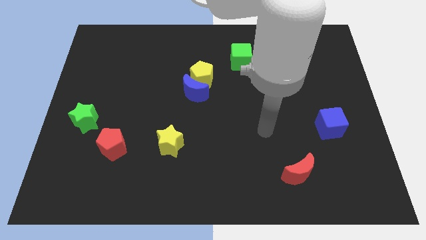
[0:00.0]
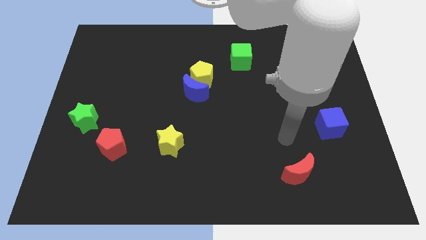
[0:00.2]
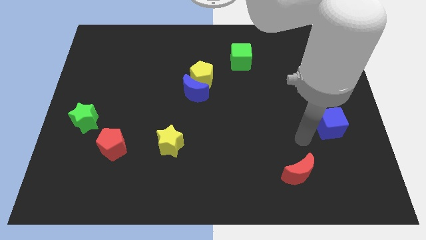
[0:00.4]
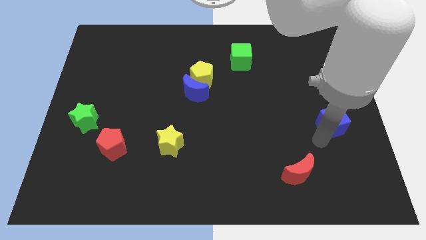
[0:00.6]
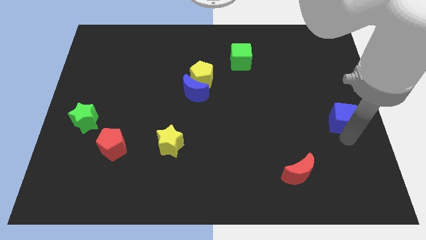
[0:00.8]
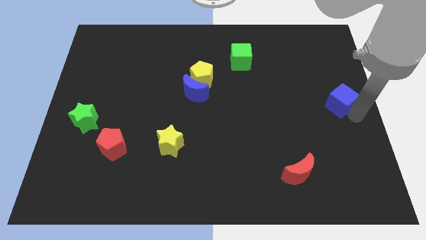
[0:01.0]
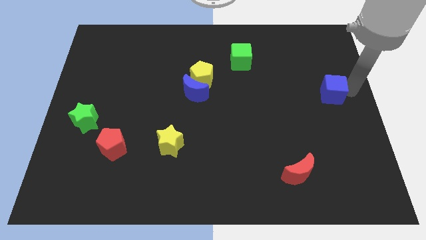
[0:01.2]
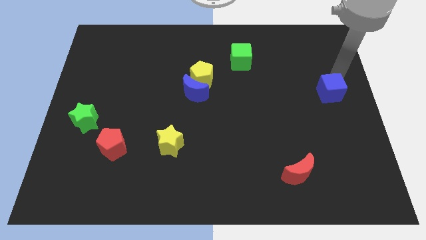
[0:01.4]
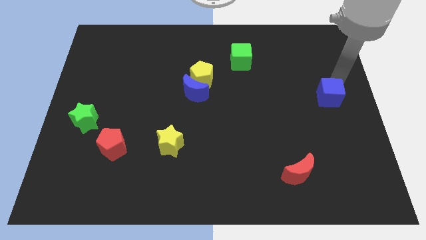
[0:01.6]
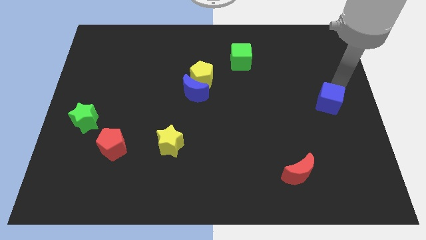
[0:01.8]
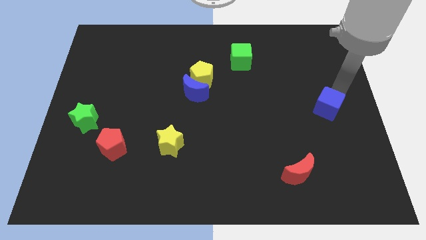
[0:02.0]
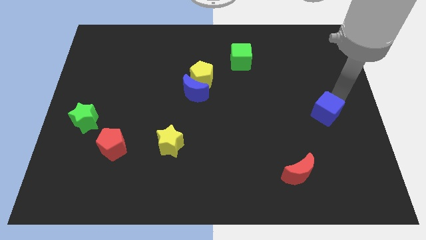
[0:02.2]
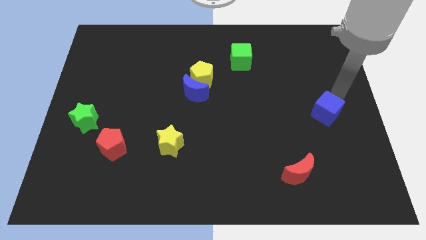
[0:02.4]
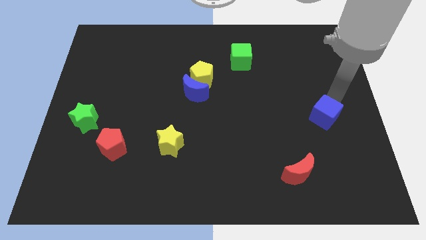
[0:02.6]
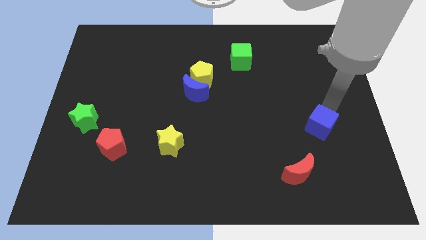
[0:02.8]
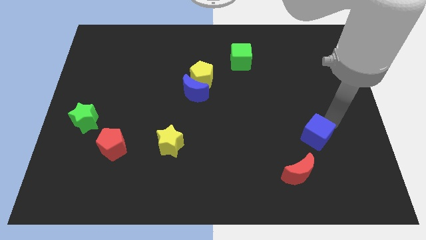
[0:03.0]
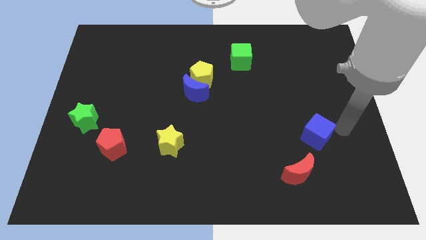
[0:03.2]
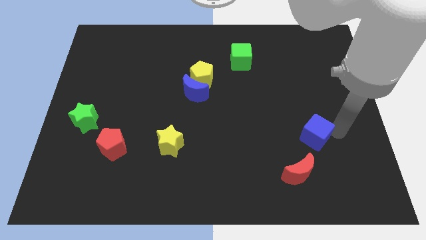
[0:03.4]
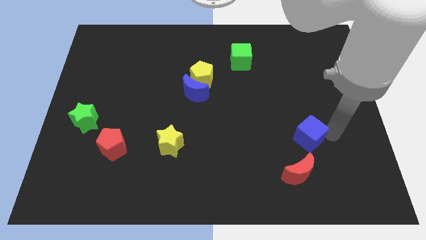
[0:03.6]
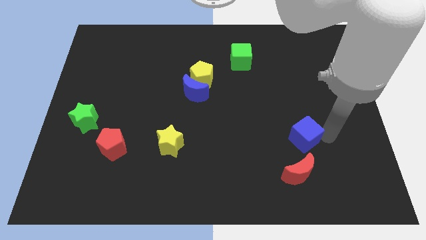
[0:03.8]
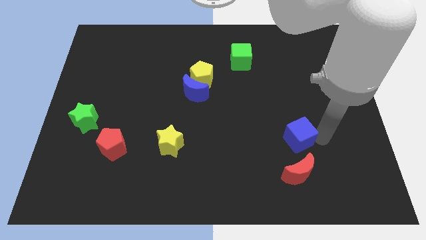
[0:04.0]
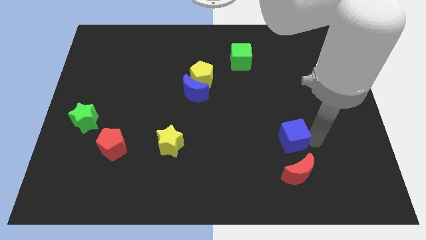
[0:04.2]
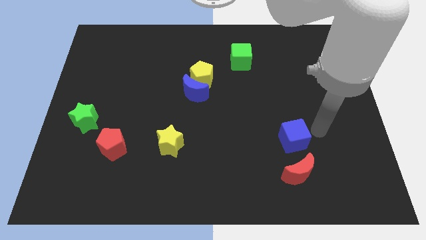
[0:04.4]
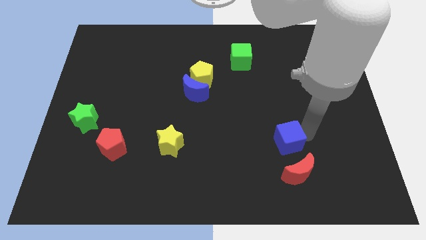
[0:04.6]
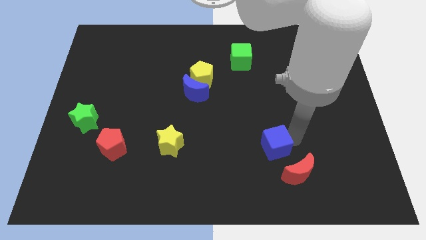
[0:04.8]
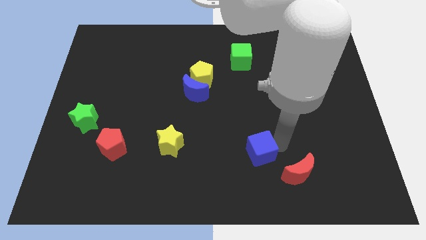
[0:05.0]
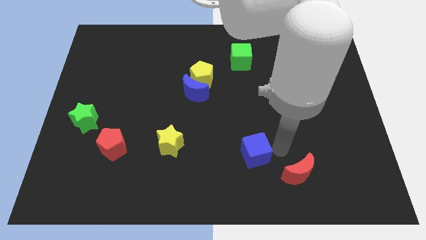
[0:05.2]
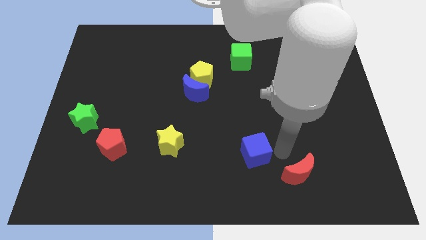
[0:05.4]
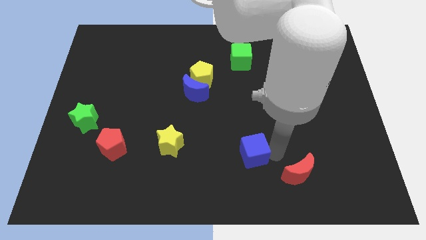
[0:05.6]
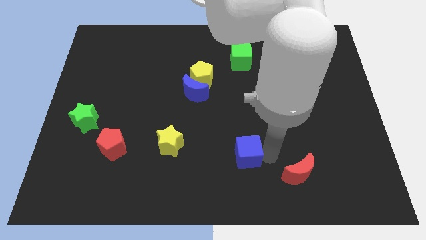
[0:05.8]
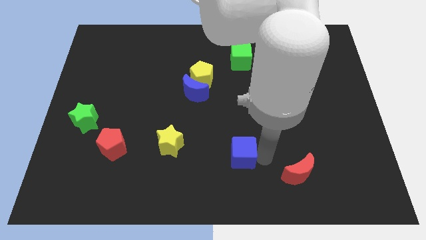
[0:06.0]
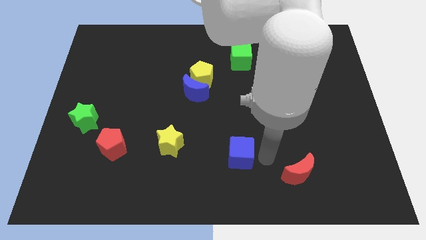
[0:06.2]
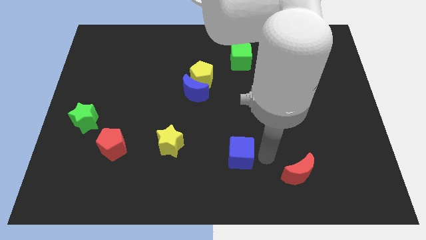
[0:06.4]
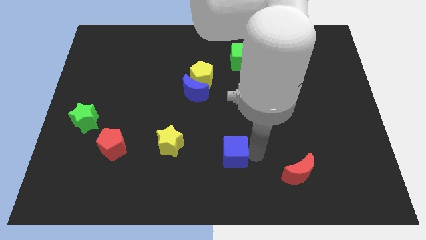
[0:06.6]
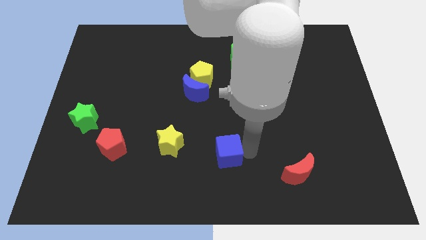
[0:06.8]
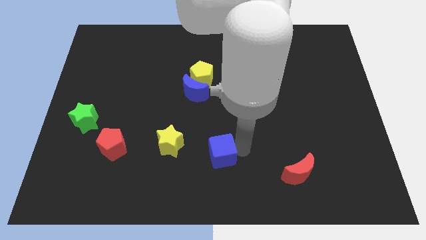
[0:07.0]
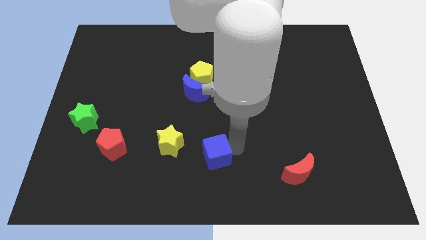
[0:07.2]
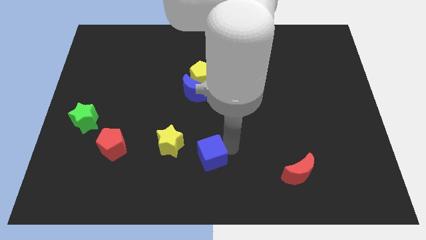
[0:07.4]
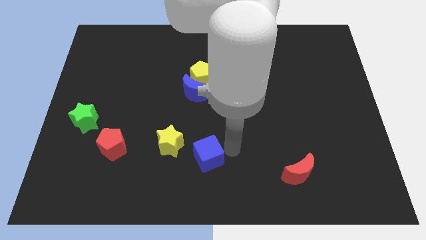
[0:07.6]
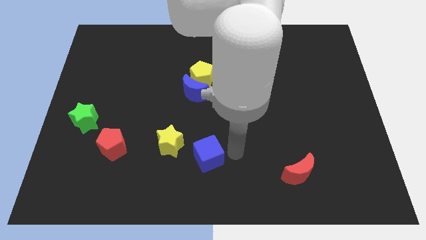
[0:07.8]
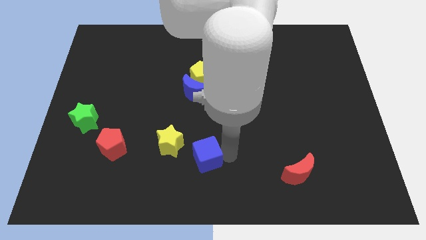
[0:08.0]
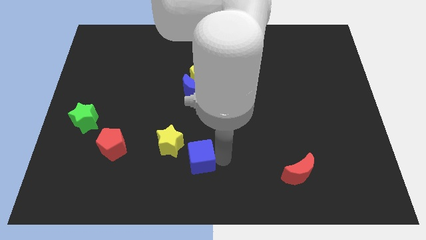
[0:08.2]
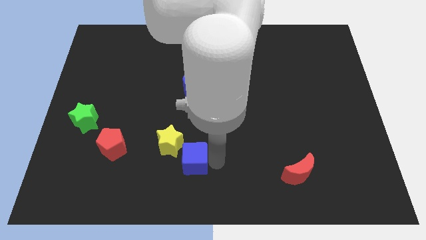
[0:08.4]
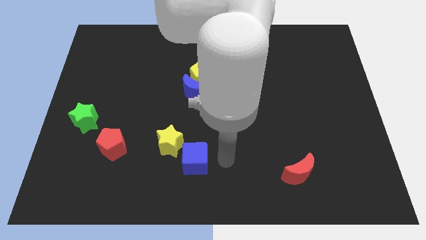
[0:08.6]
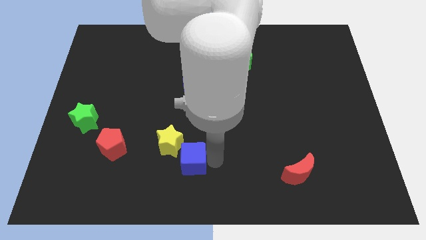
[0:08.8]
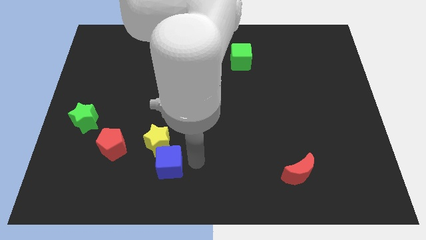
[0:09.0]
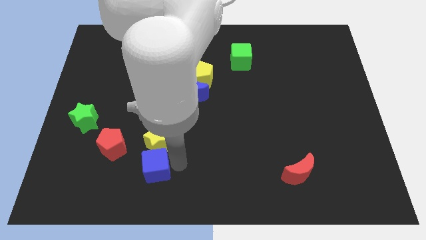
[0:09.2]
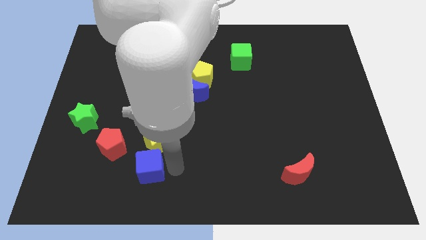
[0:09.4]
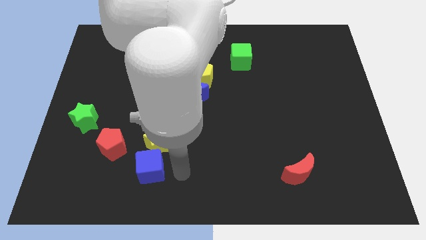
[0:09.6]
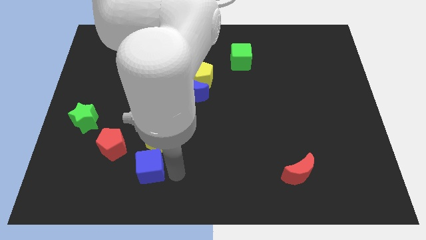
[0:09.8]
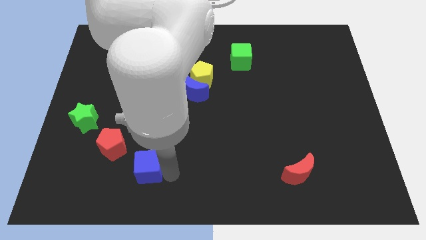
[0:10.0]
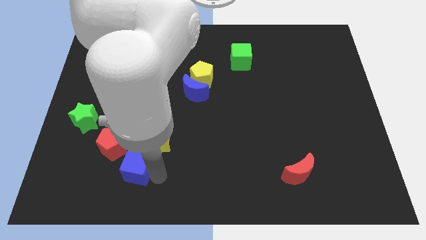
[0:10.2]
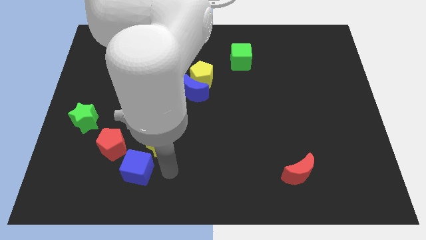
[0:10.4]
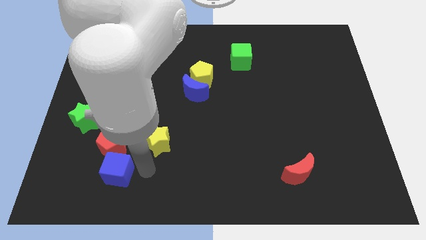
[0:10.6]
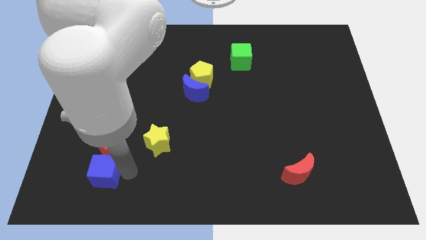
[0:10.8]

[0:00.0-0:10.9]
slide the blue cube to the bottom left of the red pentagon

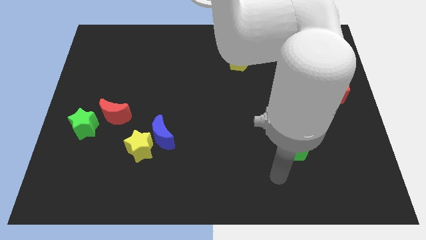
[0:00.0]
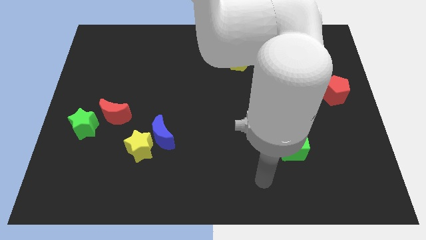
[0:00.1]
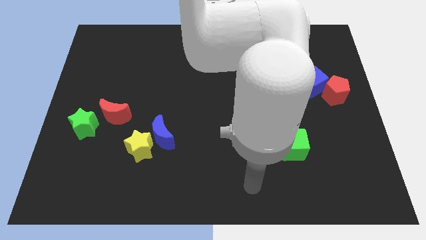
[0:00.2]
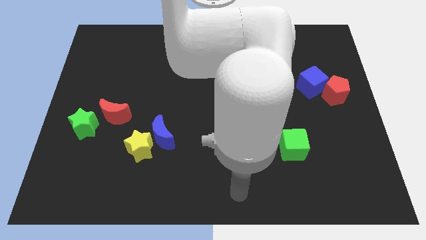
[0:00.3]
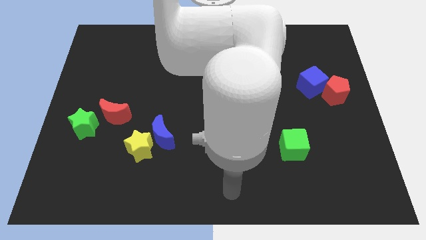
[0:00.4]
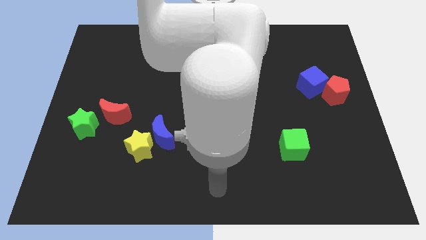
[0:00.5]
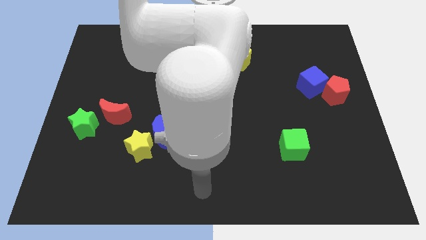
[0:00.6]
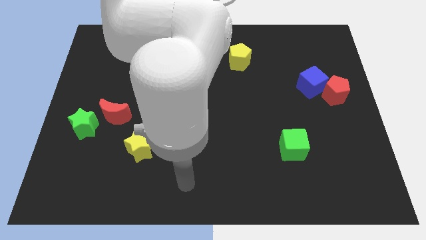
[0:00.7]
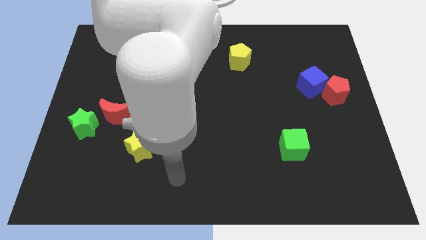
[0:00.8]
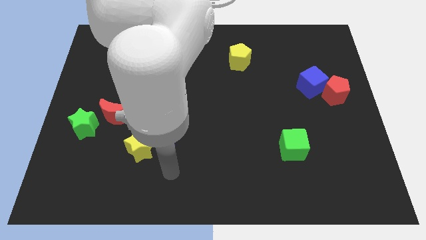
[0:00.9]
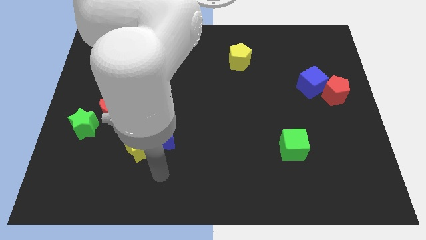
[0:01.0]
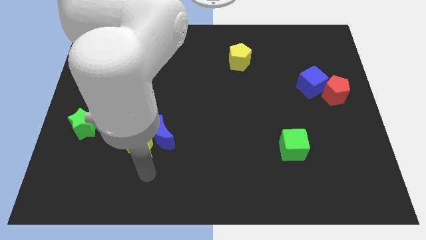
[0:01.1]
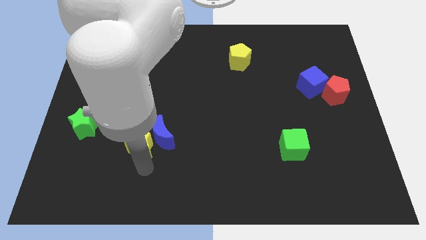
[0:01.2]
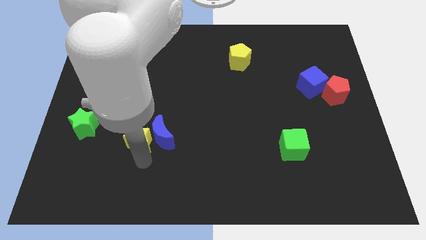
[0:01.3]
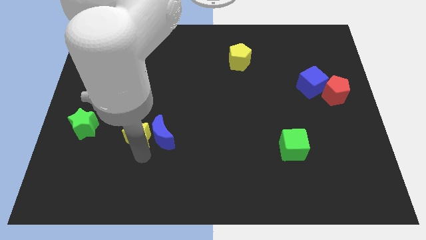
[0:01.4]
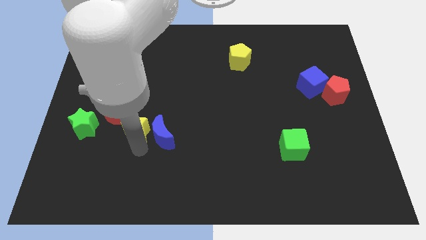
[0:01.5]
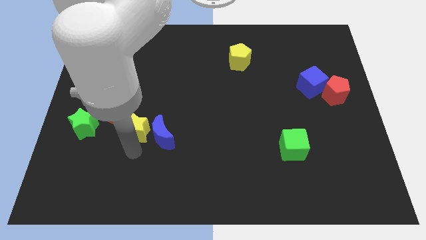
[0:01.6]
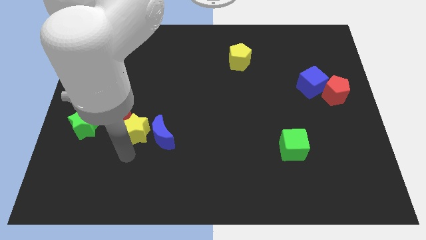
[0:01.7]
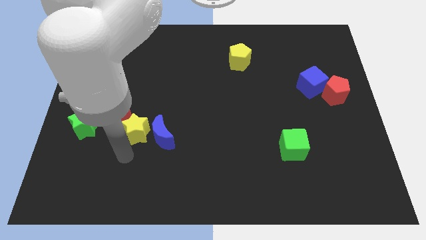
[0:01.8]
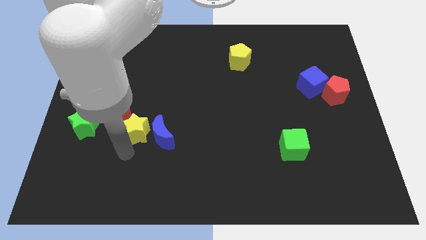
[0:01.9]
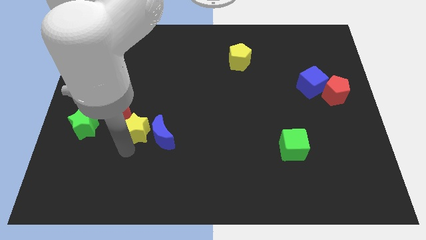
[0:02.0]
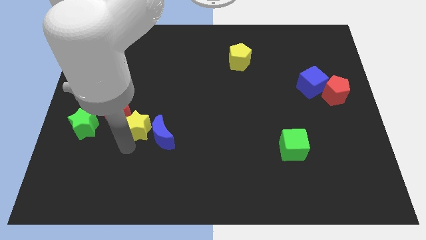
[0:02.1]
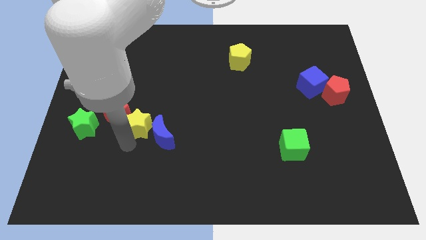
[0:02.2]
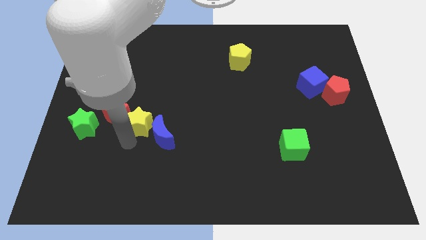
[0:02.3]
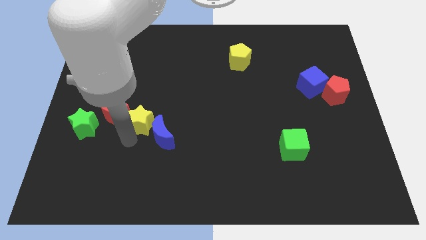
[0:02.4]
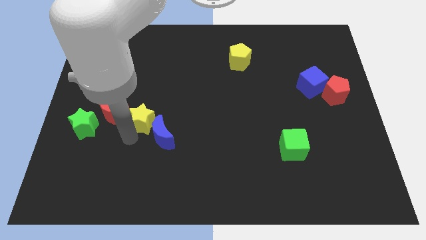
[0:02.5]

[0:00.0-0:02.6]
push the yellow star above the blue moon
